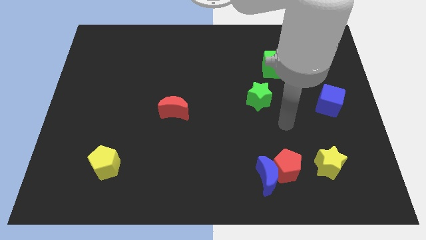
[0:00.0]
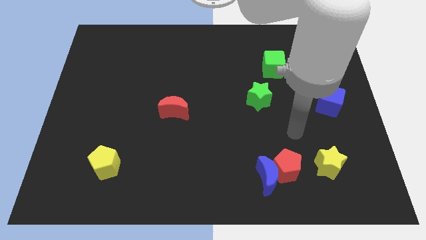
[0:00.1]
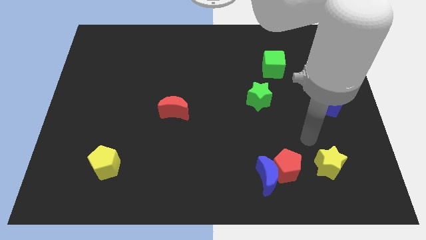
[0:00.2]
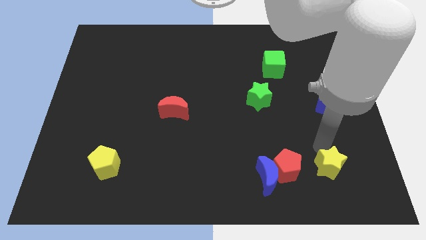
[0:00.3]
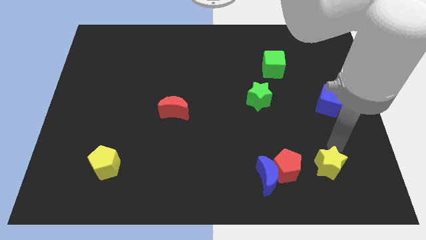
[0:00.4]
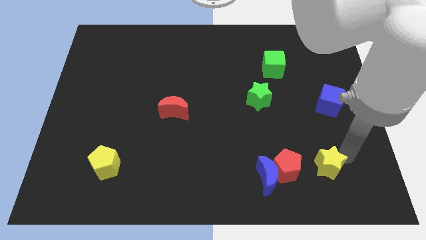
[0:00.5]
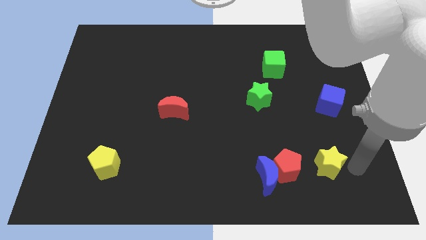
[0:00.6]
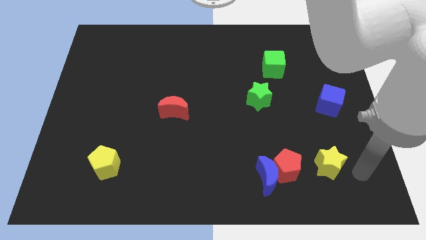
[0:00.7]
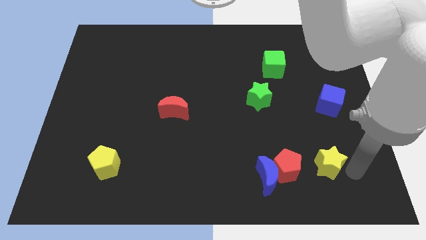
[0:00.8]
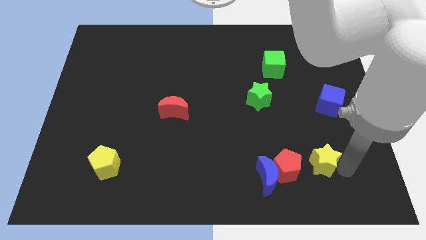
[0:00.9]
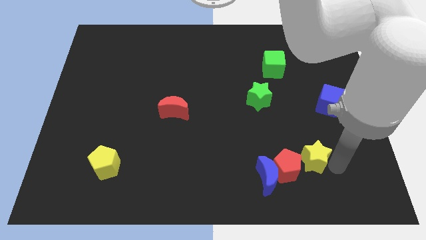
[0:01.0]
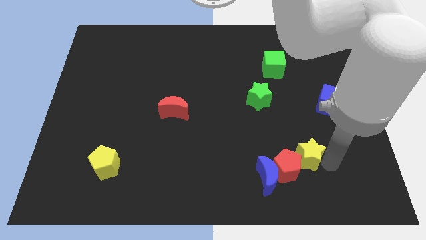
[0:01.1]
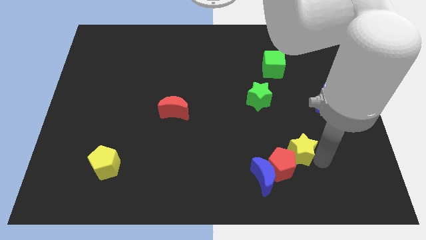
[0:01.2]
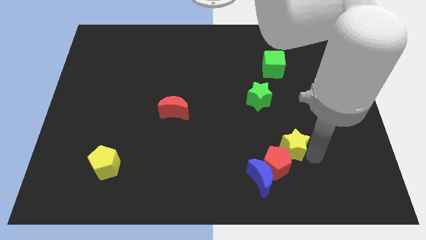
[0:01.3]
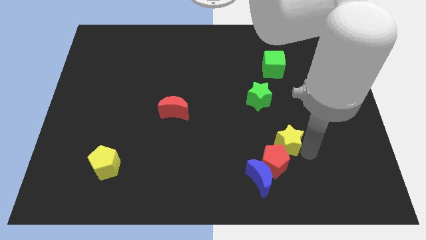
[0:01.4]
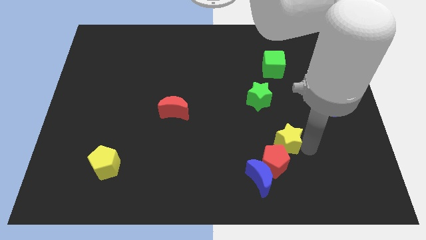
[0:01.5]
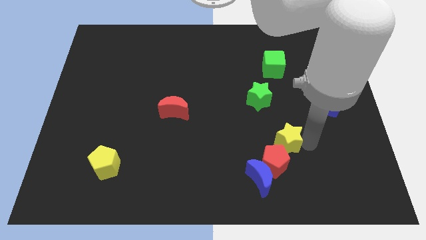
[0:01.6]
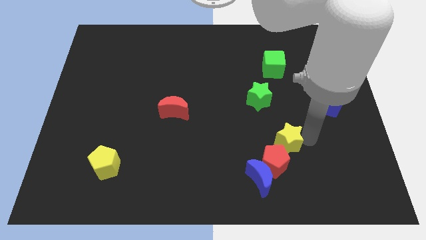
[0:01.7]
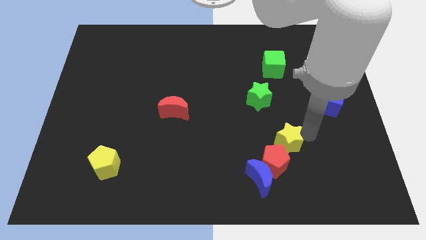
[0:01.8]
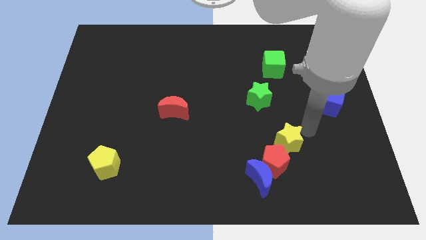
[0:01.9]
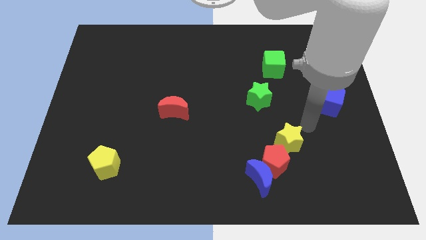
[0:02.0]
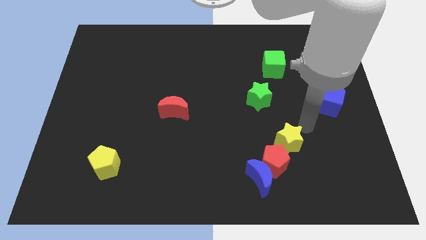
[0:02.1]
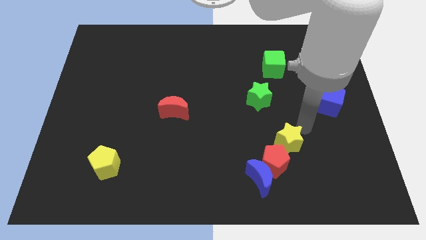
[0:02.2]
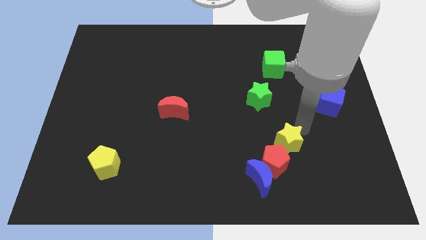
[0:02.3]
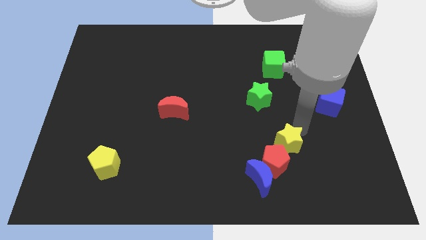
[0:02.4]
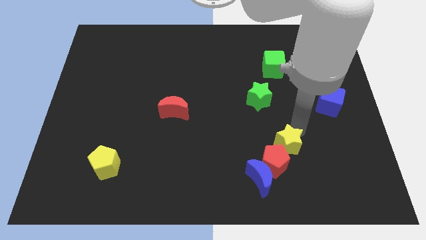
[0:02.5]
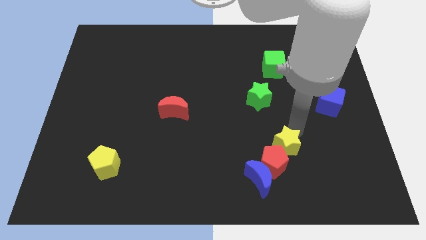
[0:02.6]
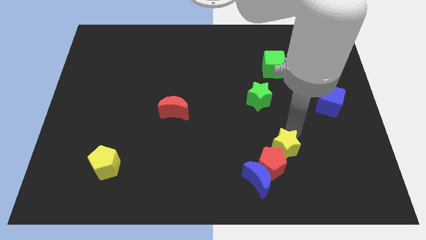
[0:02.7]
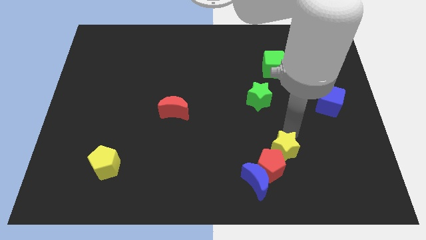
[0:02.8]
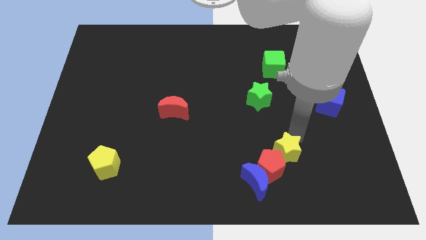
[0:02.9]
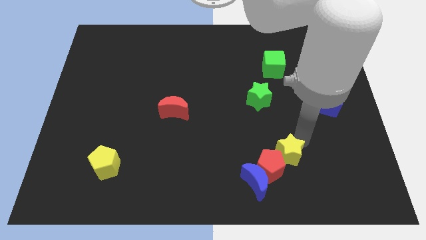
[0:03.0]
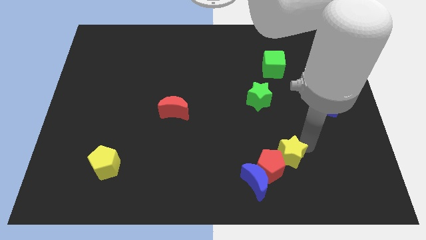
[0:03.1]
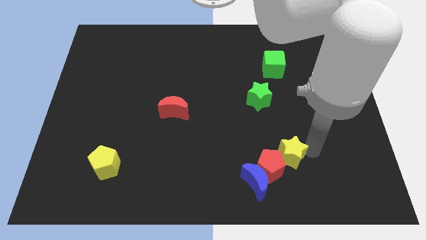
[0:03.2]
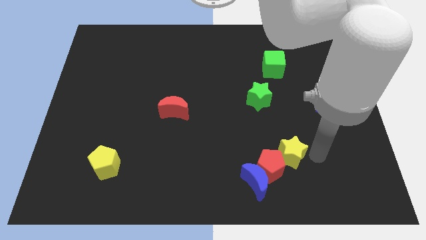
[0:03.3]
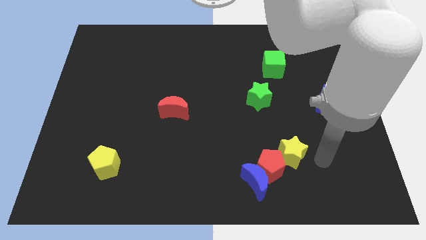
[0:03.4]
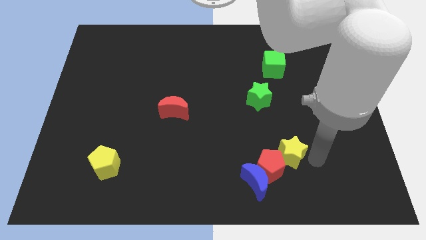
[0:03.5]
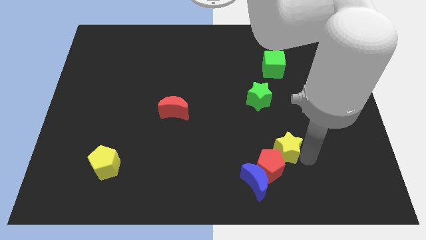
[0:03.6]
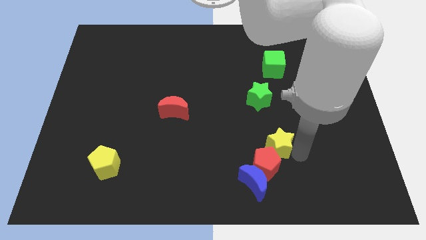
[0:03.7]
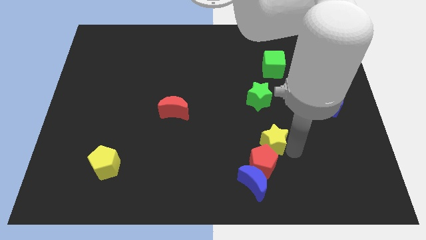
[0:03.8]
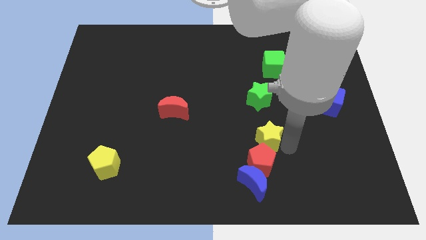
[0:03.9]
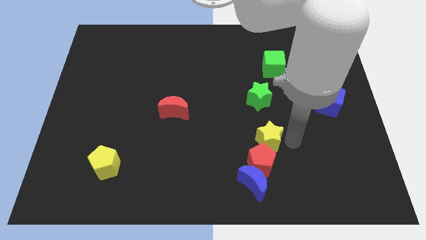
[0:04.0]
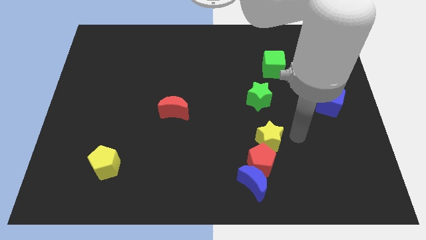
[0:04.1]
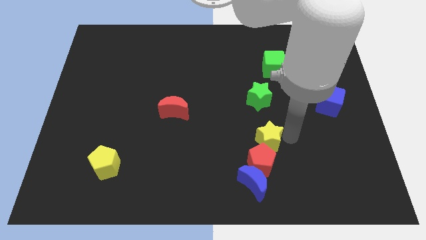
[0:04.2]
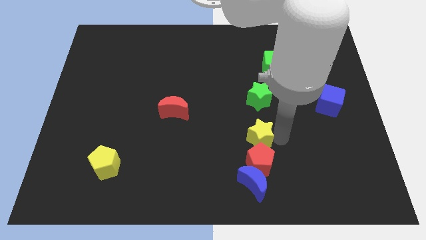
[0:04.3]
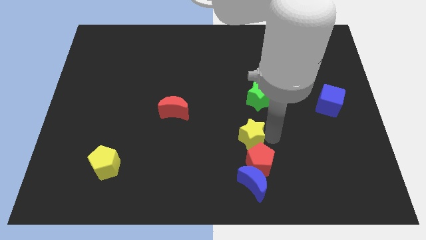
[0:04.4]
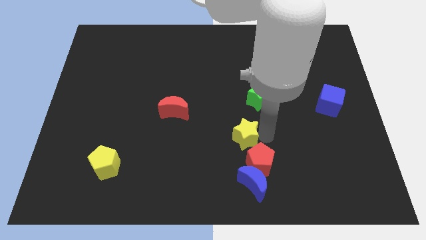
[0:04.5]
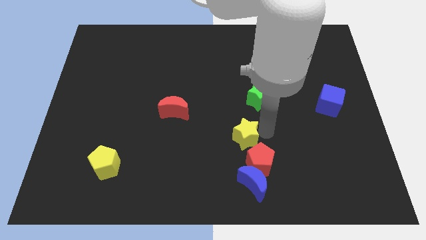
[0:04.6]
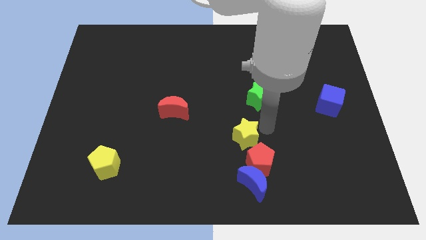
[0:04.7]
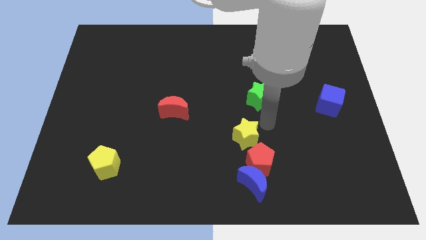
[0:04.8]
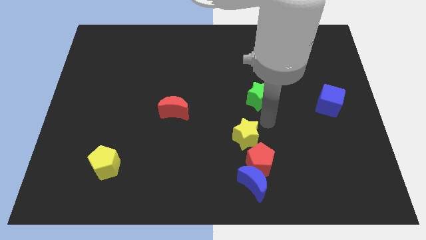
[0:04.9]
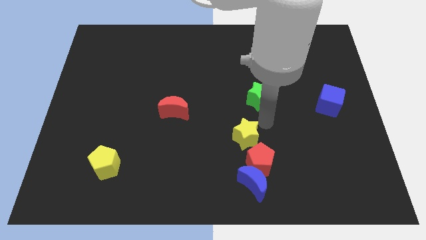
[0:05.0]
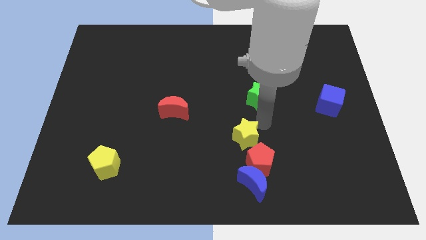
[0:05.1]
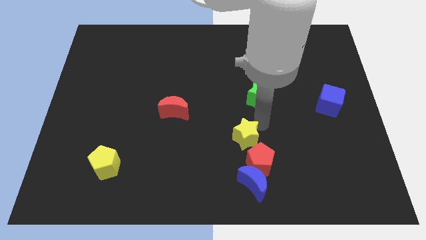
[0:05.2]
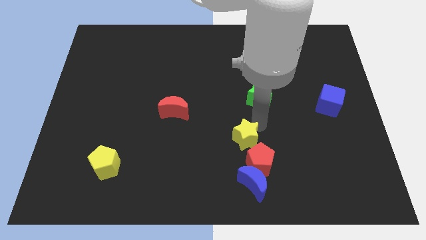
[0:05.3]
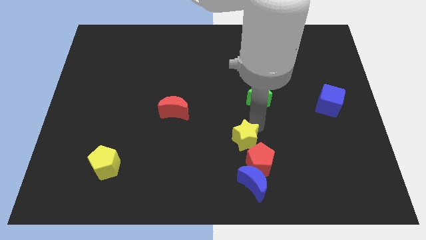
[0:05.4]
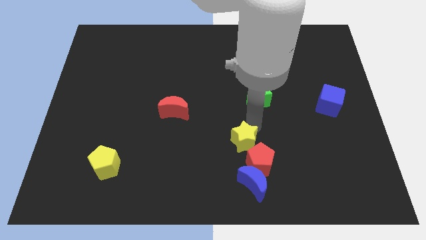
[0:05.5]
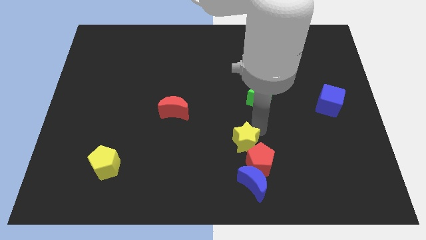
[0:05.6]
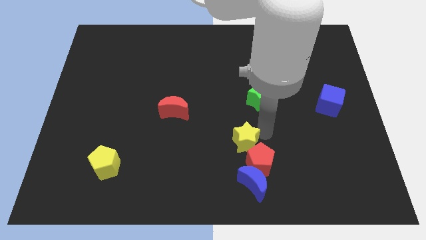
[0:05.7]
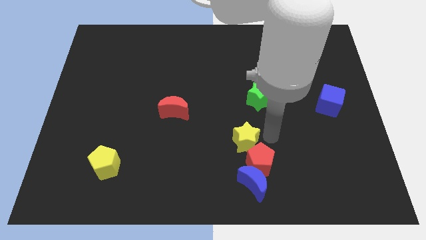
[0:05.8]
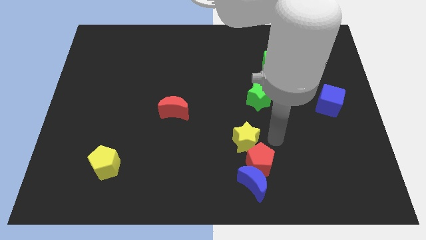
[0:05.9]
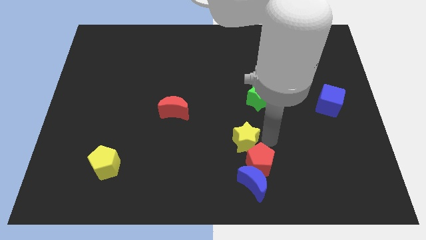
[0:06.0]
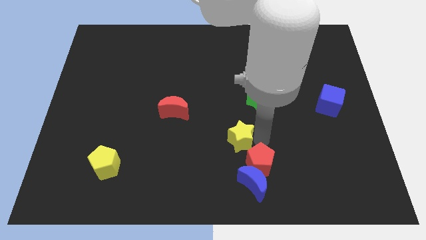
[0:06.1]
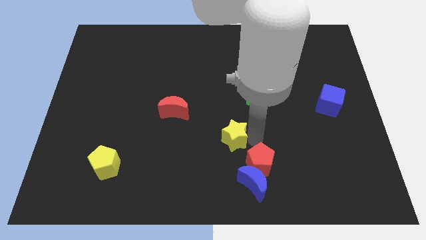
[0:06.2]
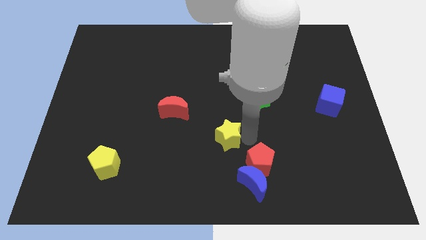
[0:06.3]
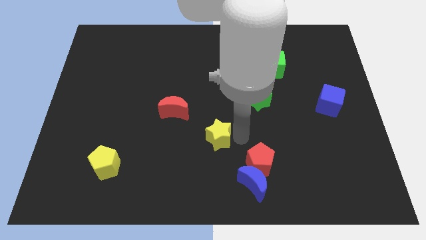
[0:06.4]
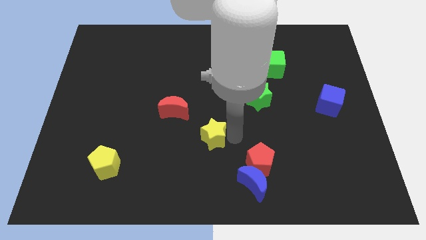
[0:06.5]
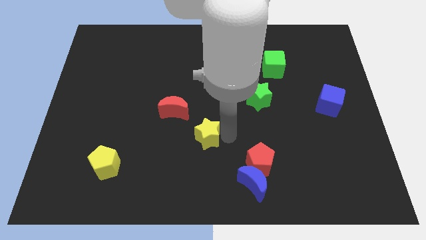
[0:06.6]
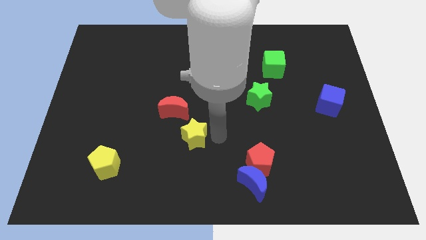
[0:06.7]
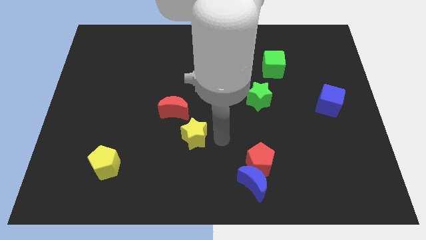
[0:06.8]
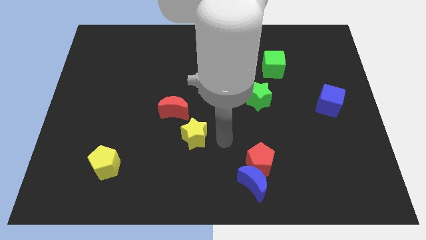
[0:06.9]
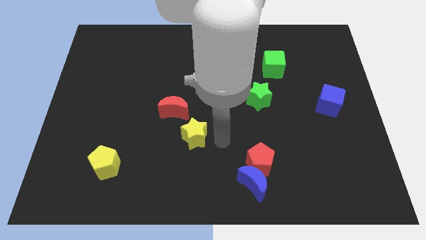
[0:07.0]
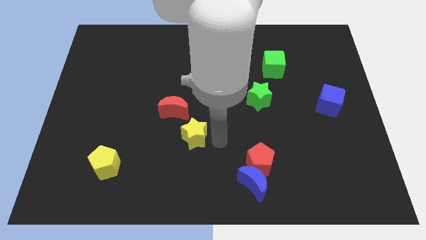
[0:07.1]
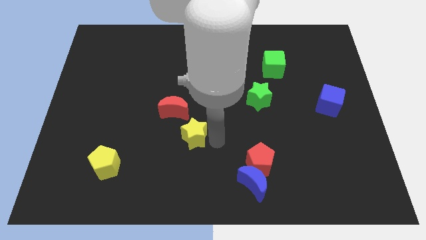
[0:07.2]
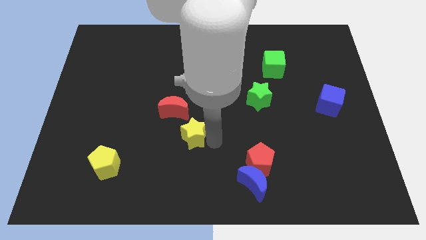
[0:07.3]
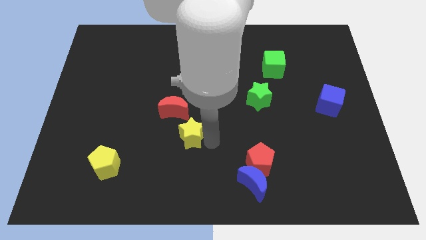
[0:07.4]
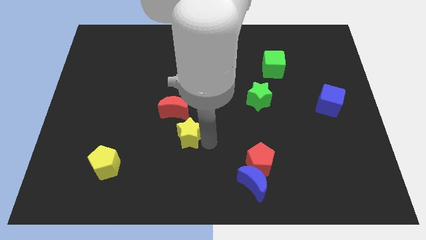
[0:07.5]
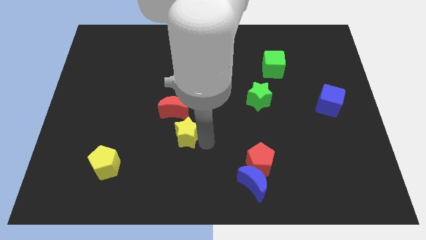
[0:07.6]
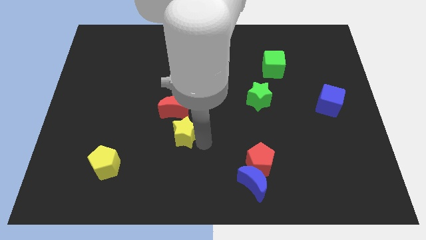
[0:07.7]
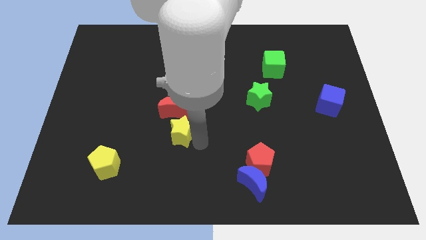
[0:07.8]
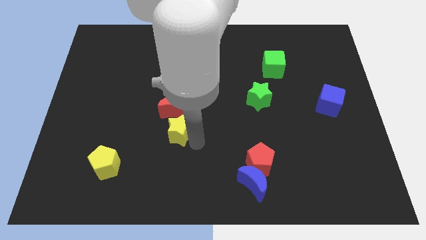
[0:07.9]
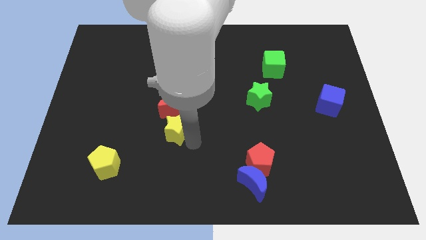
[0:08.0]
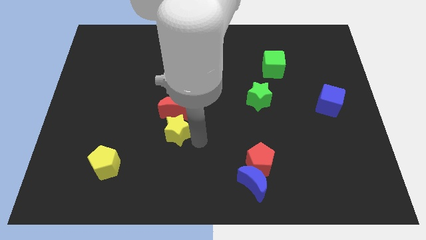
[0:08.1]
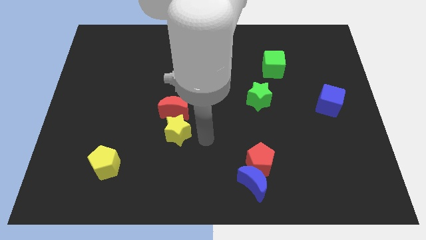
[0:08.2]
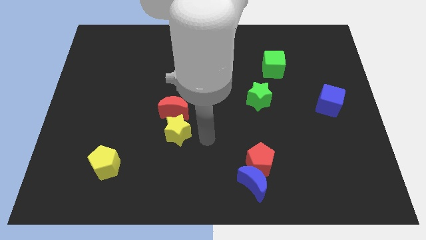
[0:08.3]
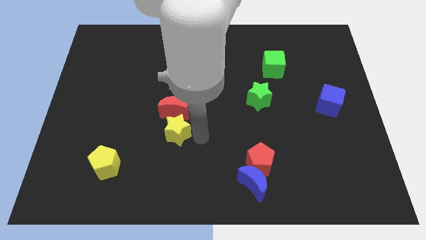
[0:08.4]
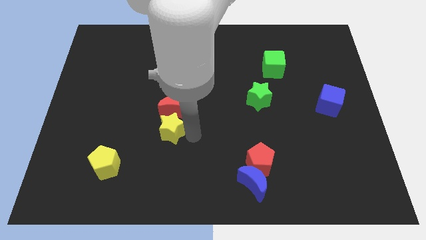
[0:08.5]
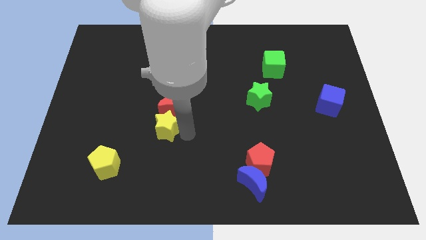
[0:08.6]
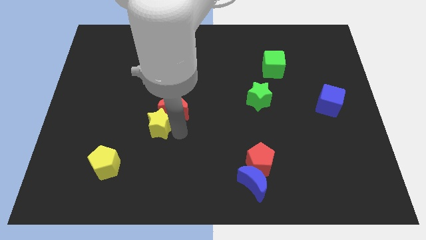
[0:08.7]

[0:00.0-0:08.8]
slide the yellow star to the left of the red moon
